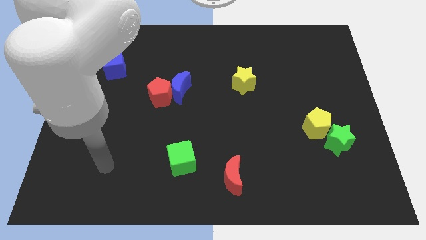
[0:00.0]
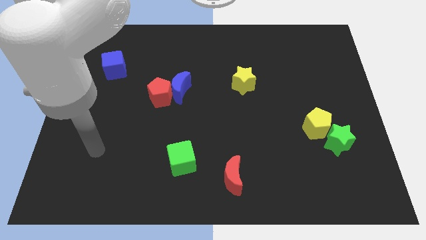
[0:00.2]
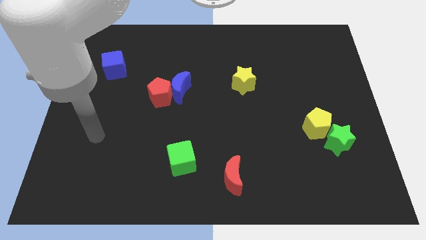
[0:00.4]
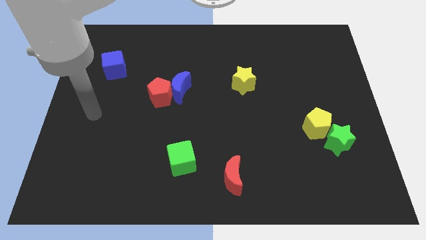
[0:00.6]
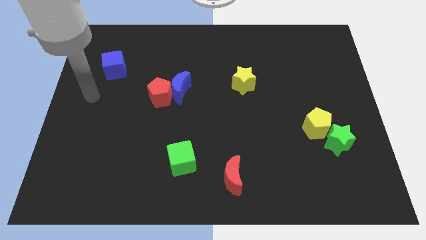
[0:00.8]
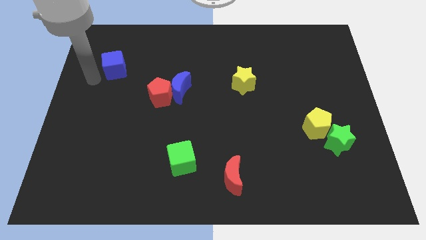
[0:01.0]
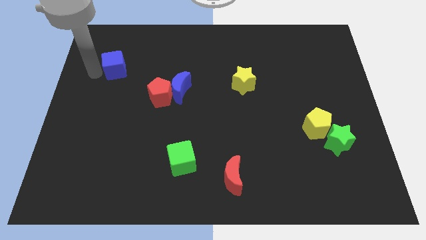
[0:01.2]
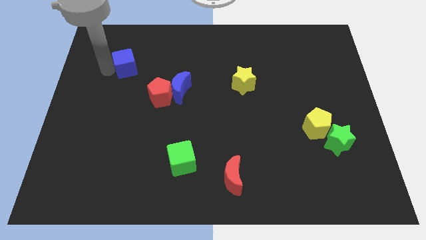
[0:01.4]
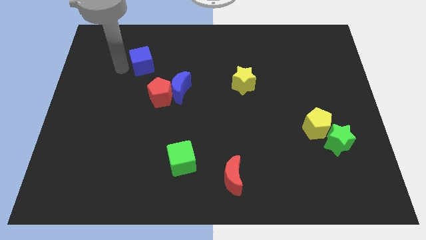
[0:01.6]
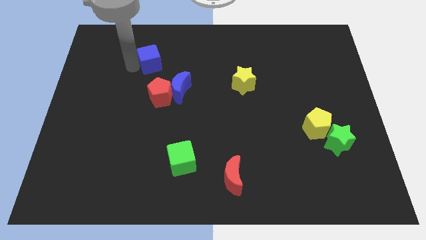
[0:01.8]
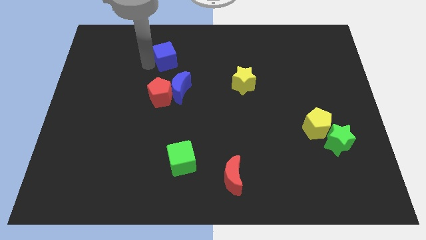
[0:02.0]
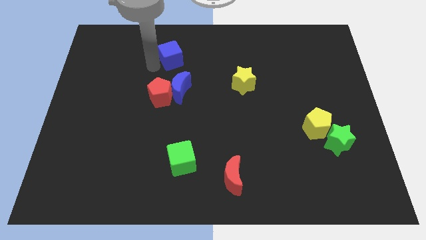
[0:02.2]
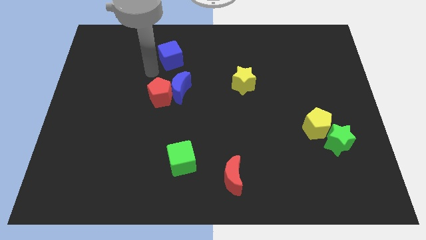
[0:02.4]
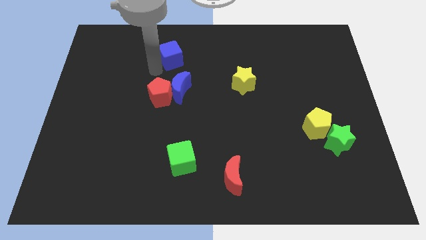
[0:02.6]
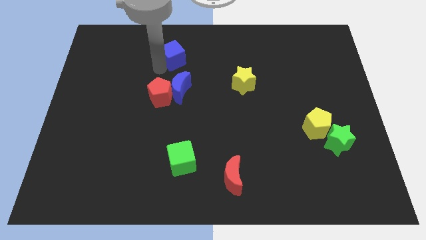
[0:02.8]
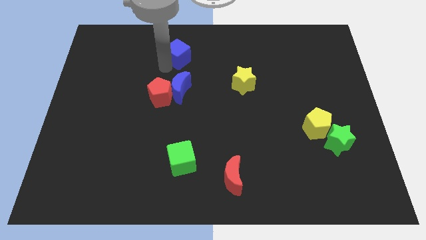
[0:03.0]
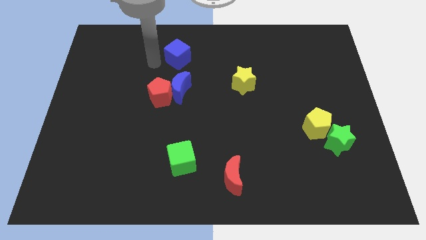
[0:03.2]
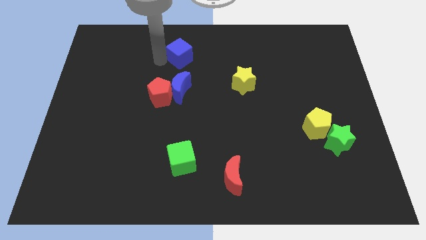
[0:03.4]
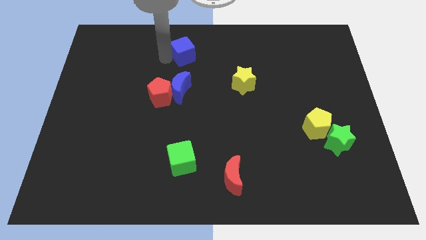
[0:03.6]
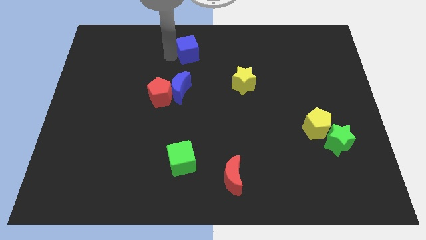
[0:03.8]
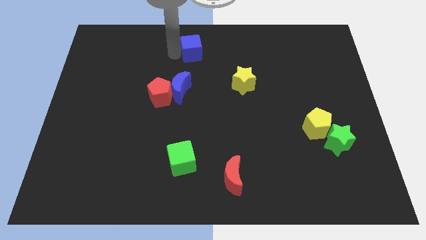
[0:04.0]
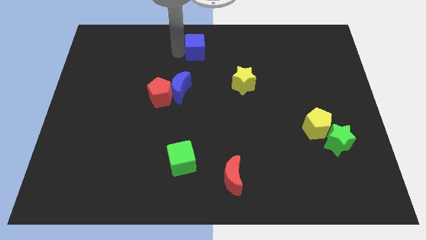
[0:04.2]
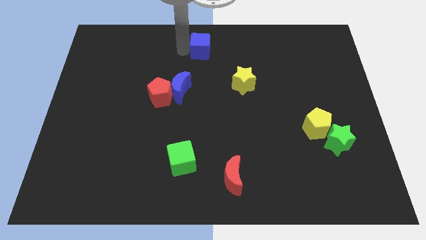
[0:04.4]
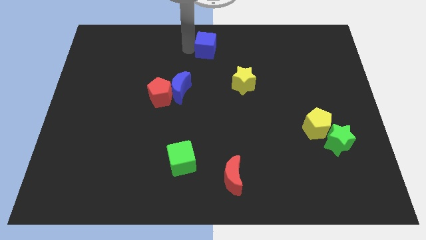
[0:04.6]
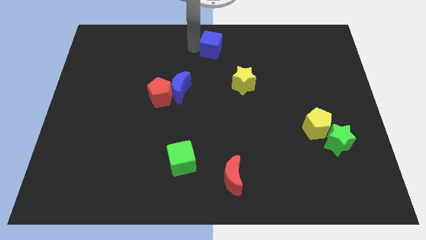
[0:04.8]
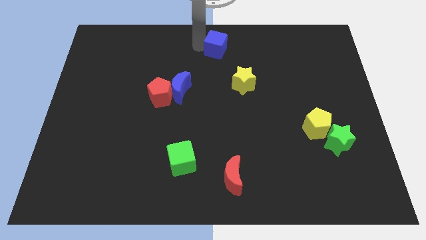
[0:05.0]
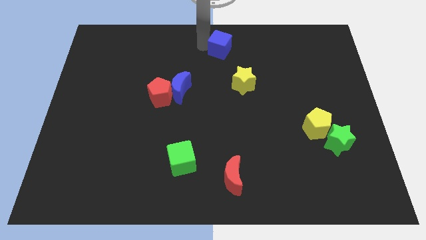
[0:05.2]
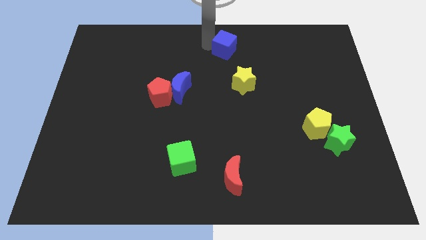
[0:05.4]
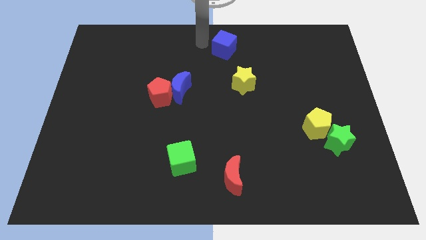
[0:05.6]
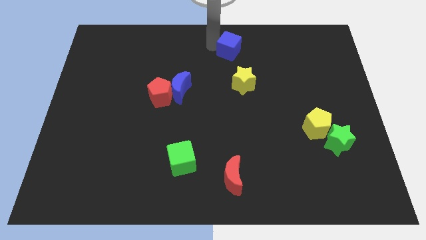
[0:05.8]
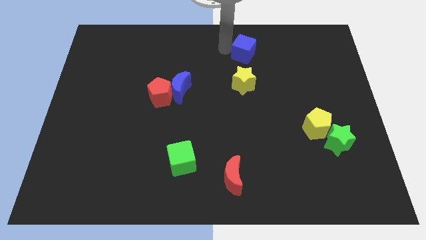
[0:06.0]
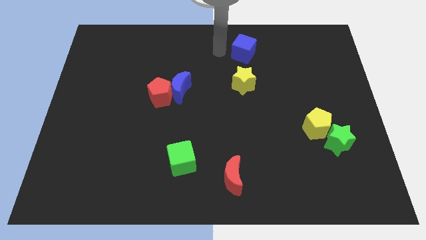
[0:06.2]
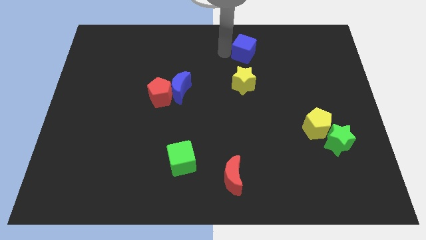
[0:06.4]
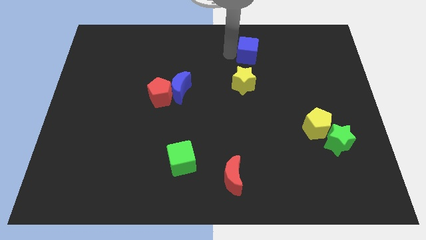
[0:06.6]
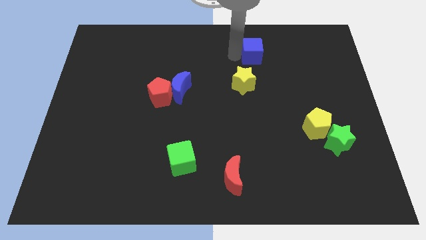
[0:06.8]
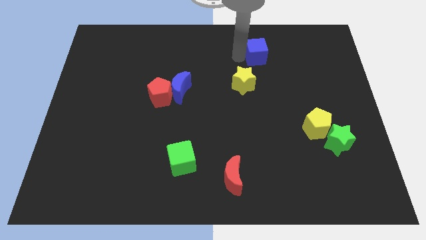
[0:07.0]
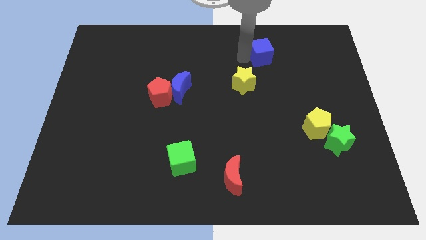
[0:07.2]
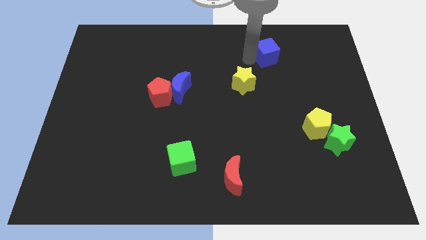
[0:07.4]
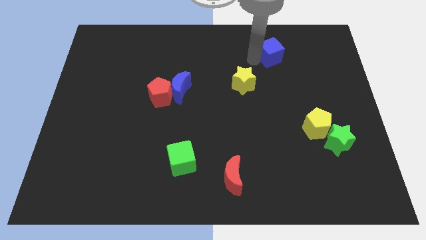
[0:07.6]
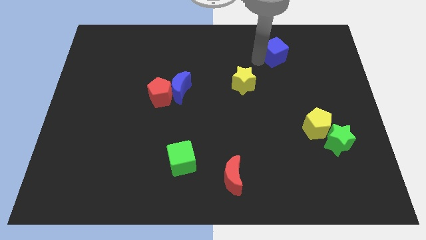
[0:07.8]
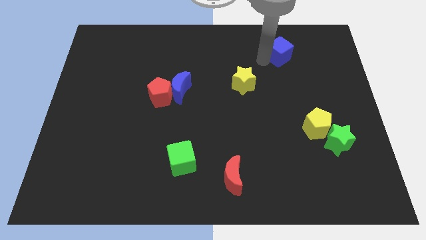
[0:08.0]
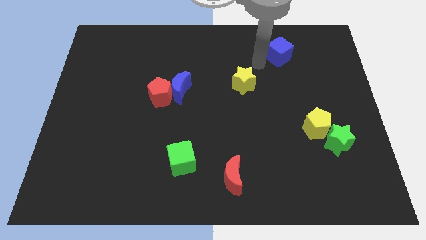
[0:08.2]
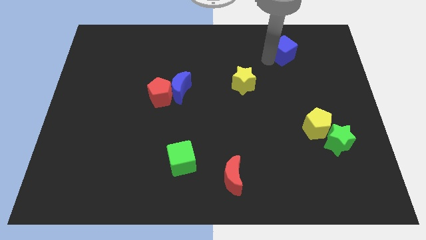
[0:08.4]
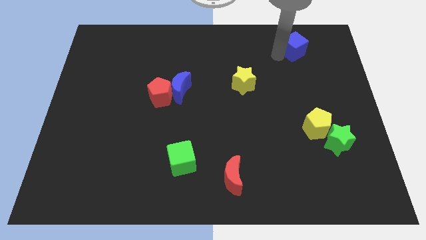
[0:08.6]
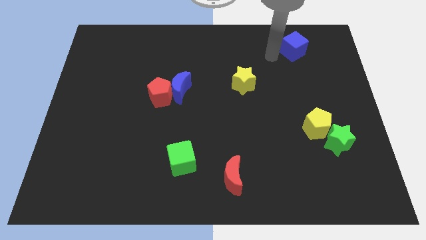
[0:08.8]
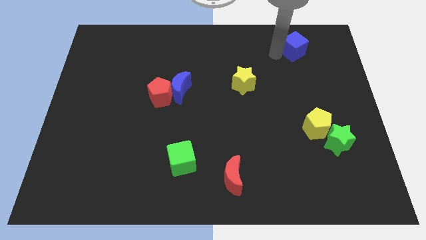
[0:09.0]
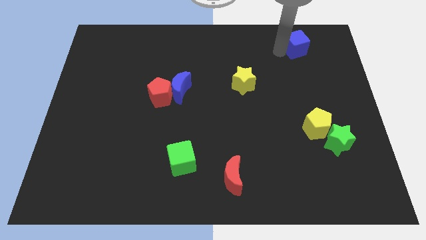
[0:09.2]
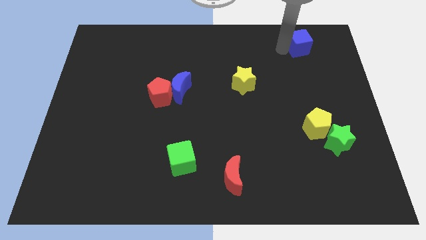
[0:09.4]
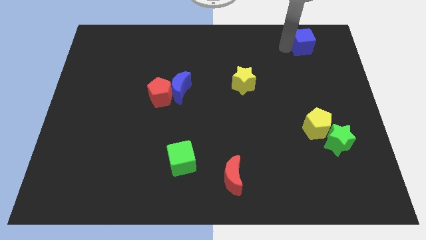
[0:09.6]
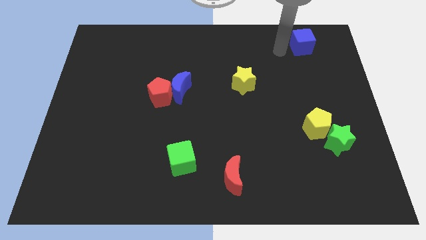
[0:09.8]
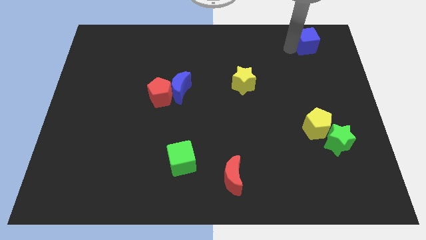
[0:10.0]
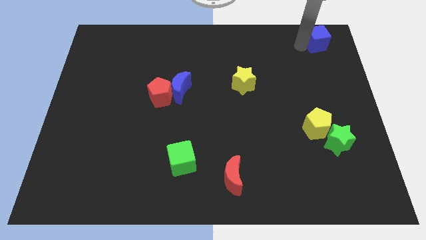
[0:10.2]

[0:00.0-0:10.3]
move the blue cube to the top right corner

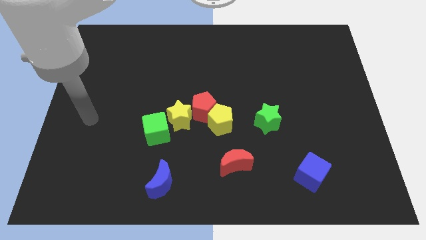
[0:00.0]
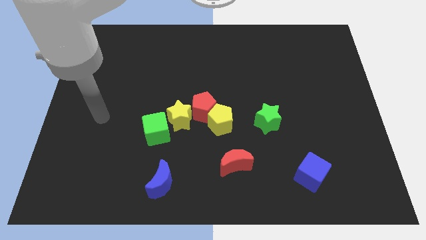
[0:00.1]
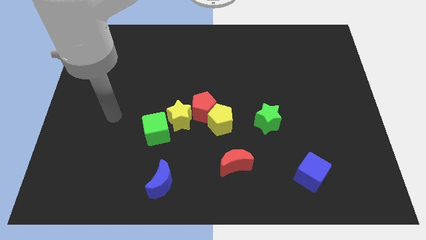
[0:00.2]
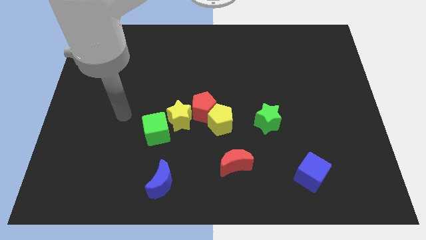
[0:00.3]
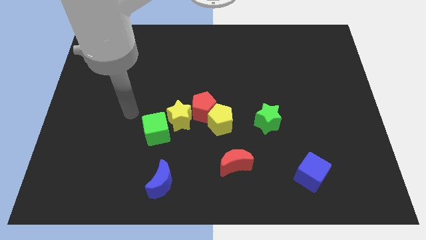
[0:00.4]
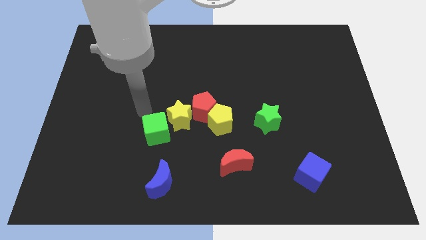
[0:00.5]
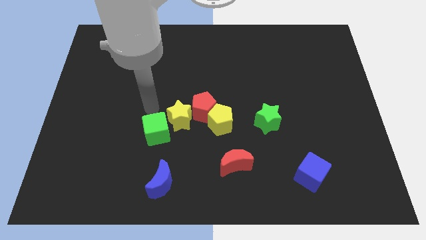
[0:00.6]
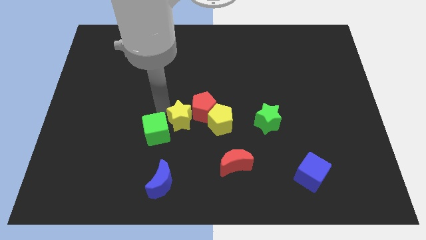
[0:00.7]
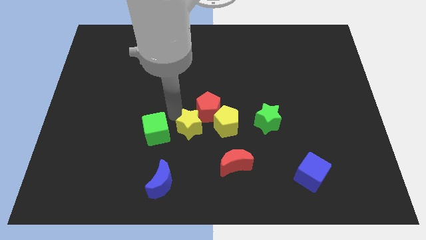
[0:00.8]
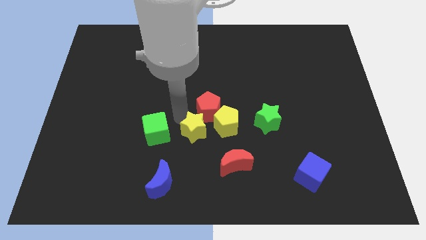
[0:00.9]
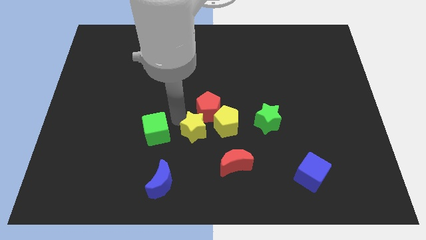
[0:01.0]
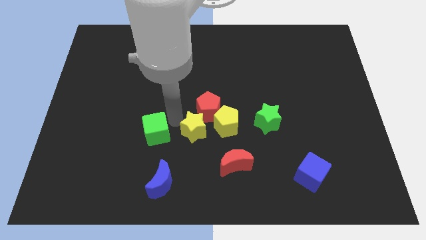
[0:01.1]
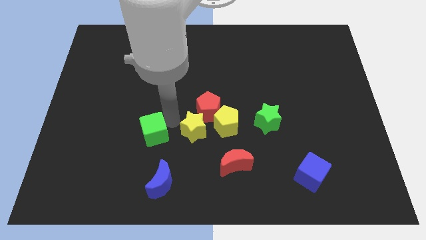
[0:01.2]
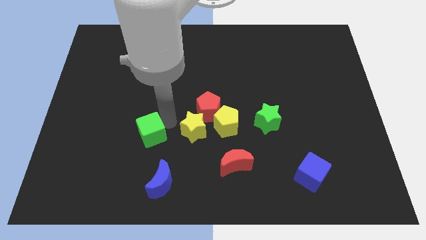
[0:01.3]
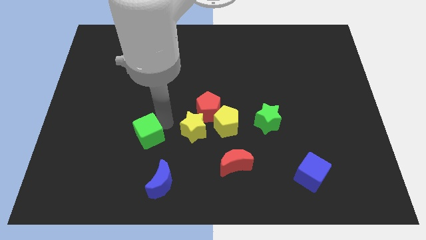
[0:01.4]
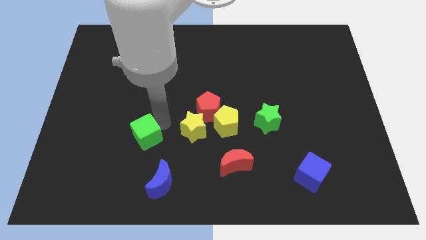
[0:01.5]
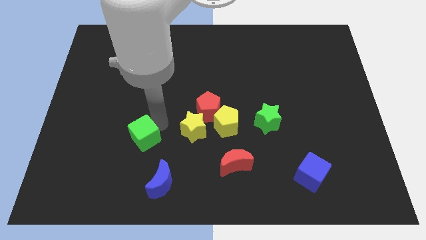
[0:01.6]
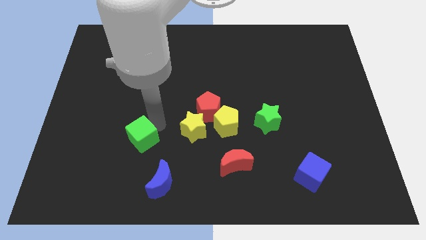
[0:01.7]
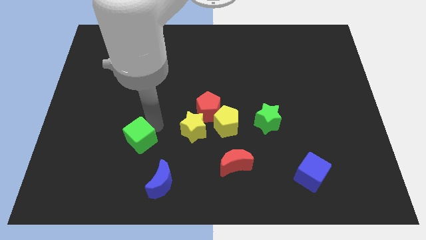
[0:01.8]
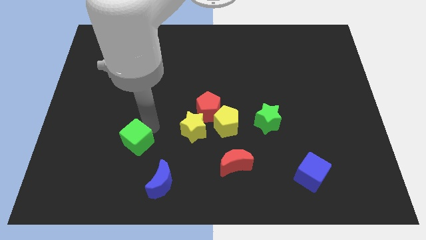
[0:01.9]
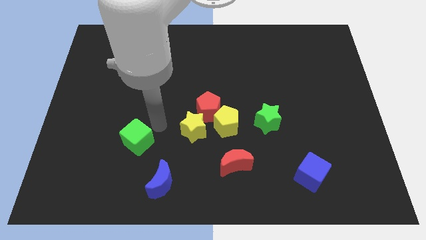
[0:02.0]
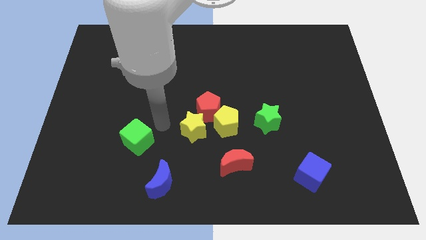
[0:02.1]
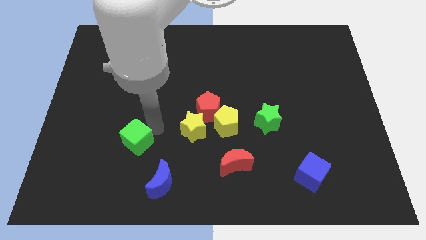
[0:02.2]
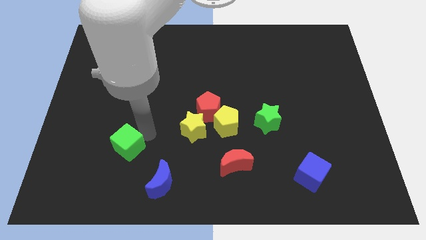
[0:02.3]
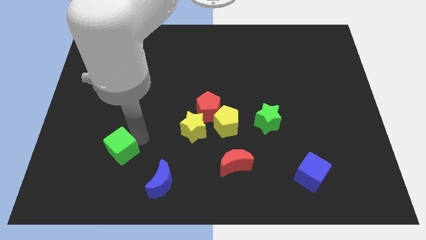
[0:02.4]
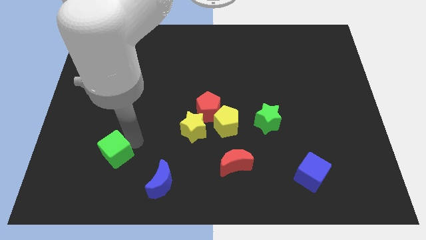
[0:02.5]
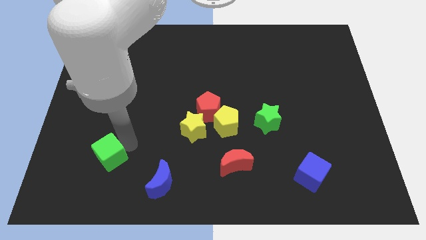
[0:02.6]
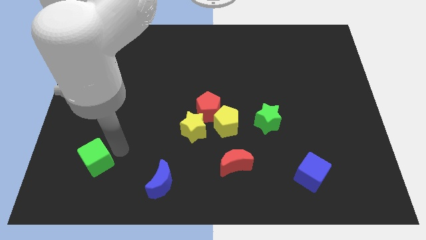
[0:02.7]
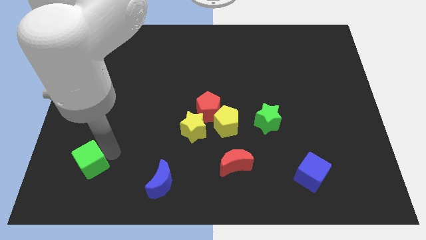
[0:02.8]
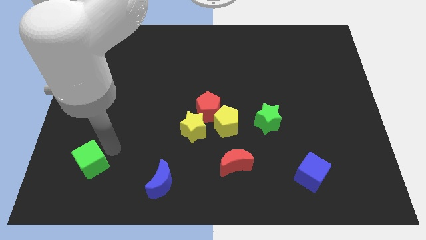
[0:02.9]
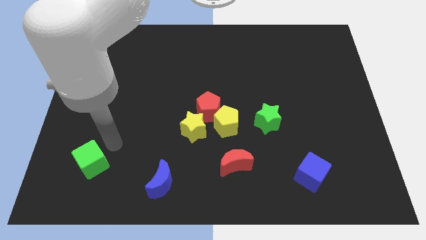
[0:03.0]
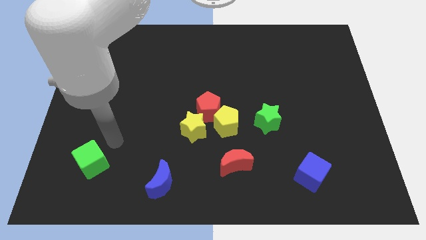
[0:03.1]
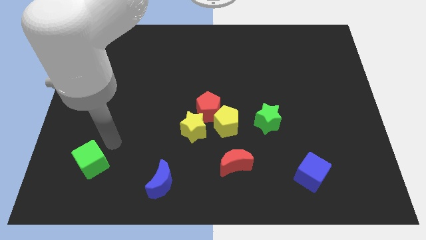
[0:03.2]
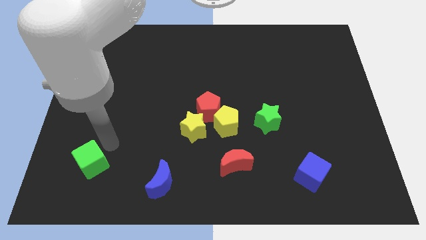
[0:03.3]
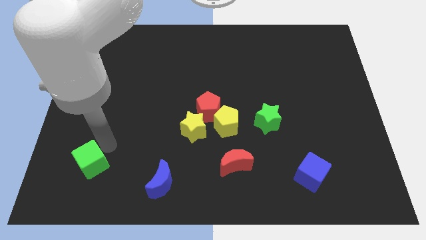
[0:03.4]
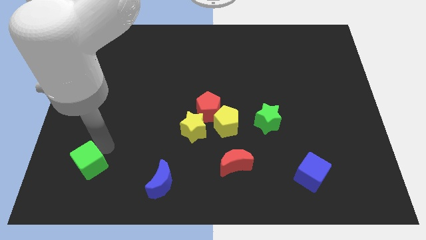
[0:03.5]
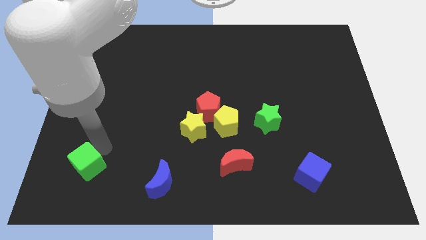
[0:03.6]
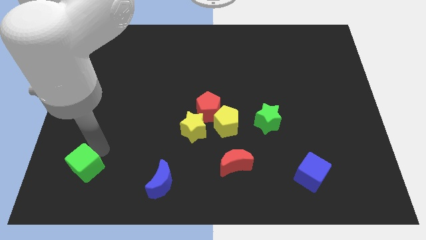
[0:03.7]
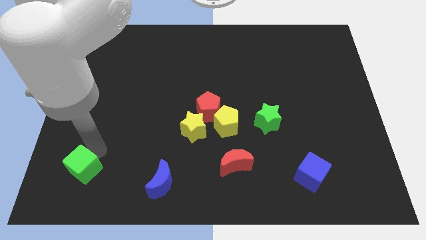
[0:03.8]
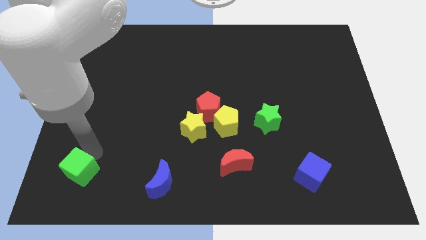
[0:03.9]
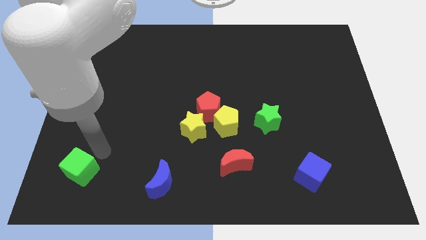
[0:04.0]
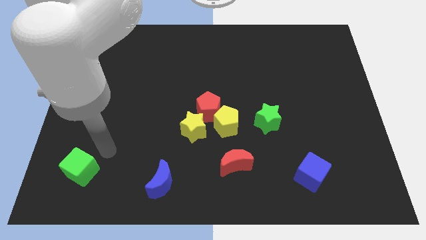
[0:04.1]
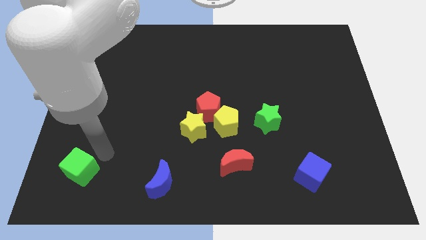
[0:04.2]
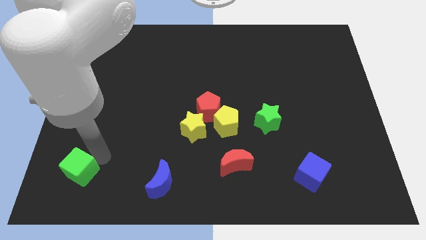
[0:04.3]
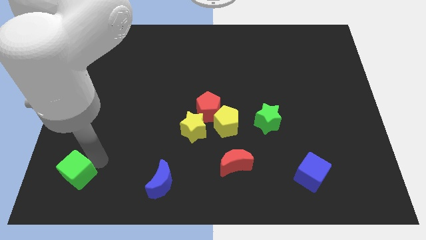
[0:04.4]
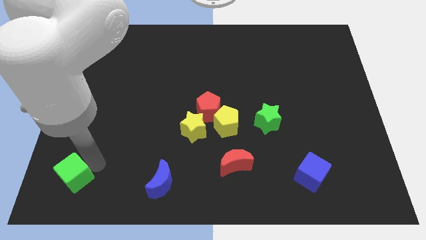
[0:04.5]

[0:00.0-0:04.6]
move the green cube to the bottom left
